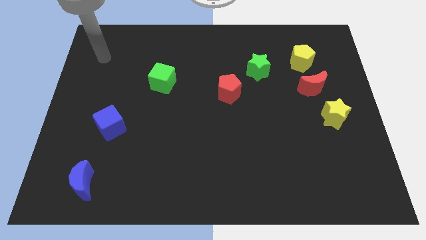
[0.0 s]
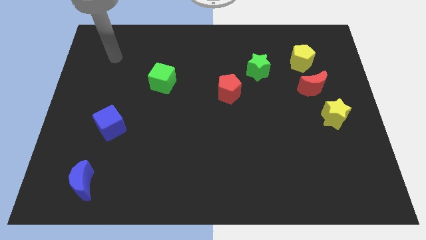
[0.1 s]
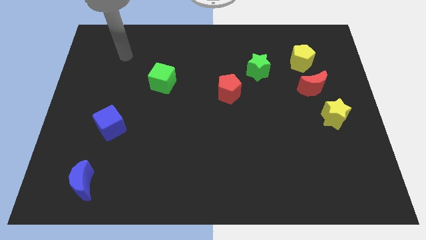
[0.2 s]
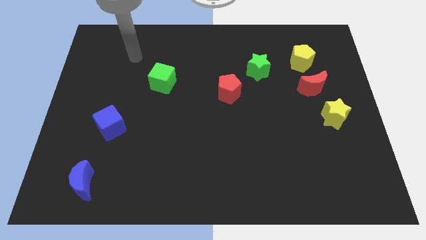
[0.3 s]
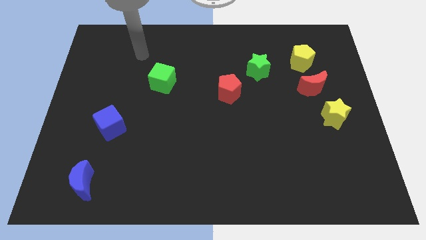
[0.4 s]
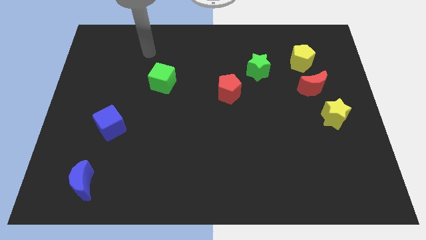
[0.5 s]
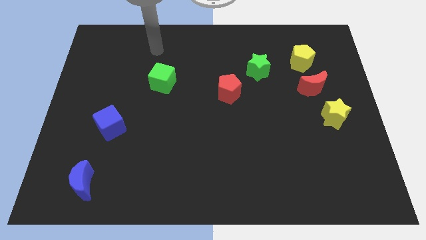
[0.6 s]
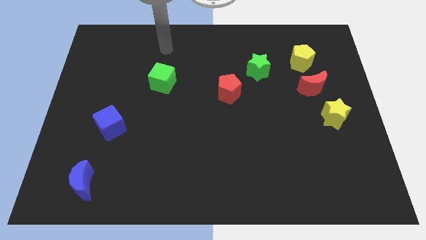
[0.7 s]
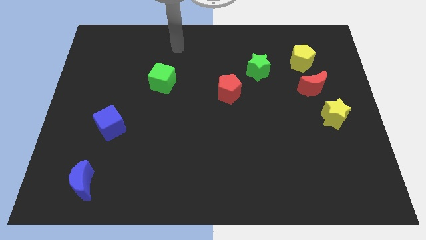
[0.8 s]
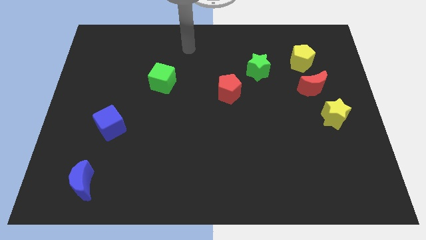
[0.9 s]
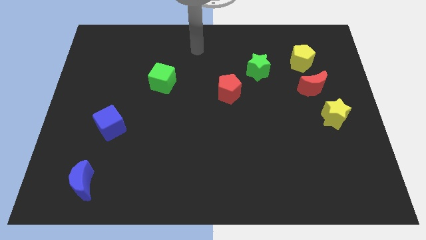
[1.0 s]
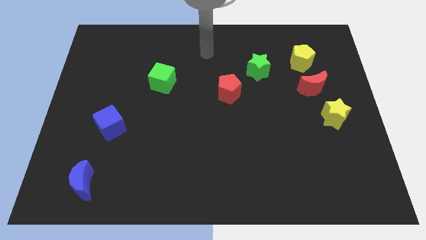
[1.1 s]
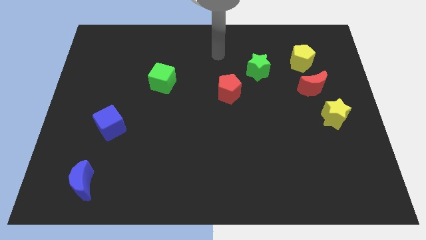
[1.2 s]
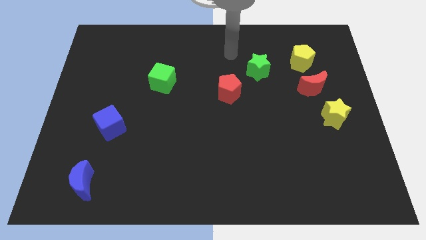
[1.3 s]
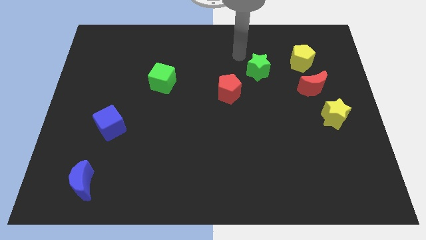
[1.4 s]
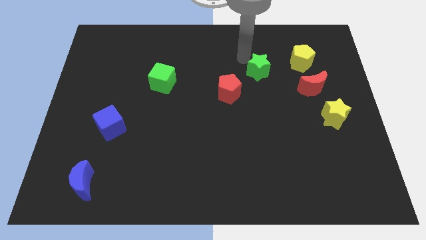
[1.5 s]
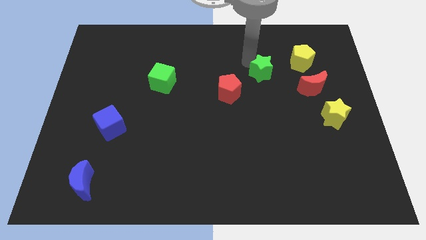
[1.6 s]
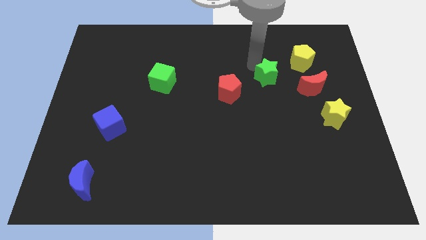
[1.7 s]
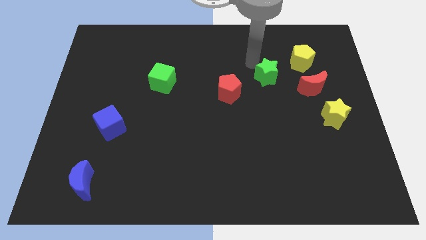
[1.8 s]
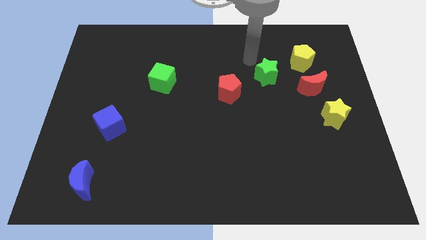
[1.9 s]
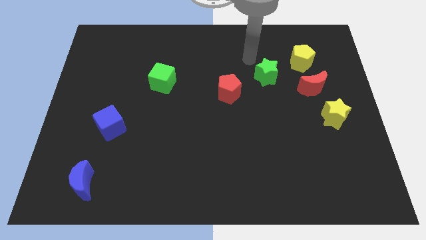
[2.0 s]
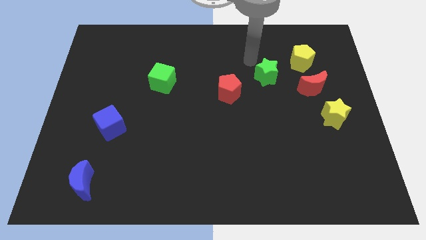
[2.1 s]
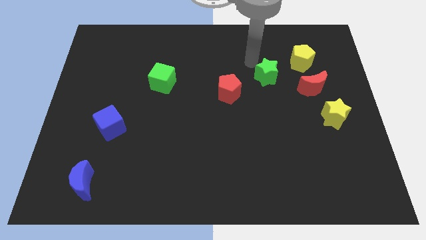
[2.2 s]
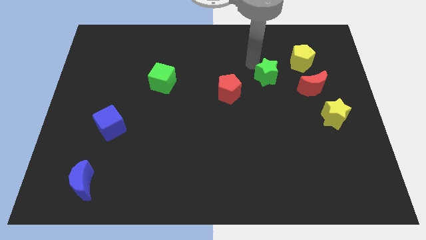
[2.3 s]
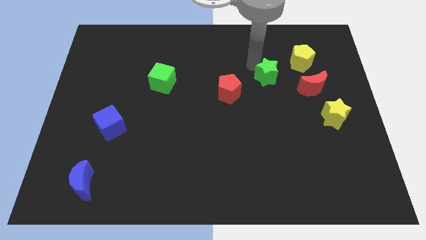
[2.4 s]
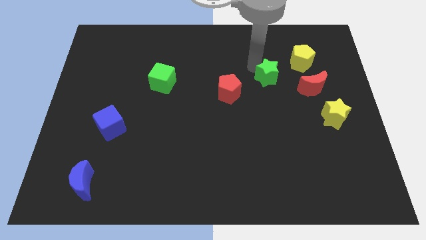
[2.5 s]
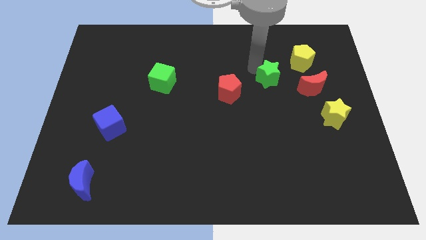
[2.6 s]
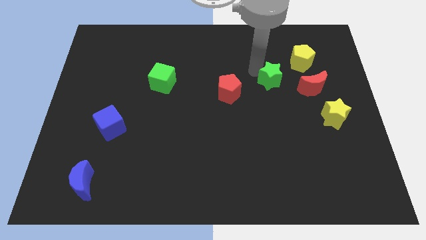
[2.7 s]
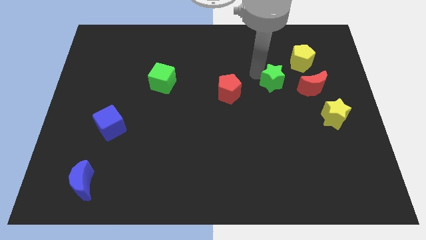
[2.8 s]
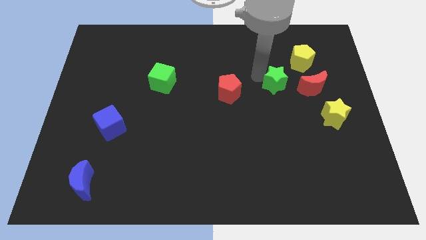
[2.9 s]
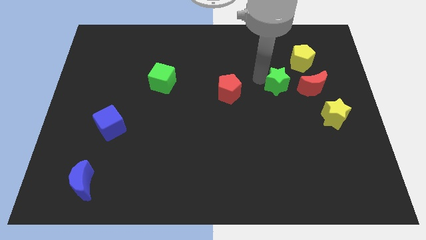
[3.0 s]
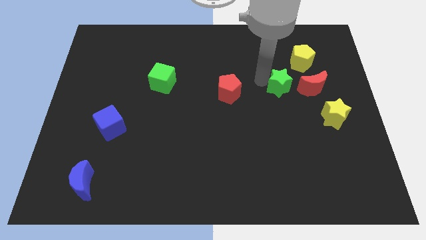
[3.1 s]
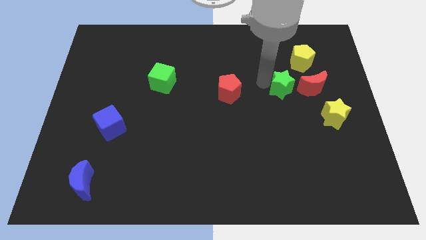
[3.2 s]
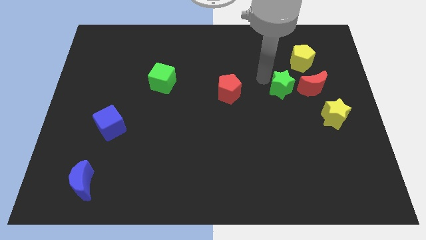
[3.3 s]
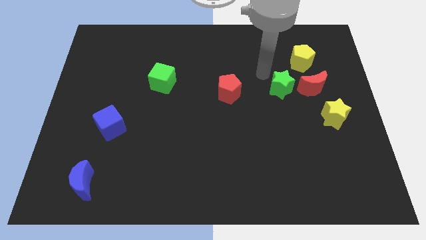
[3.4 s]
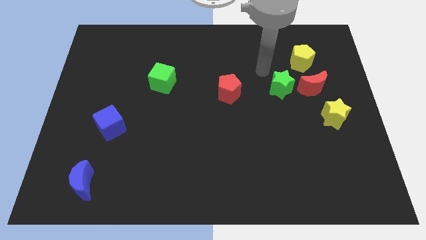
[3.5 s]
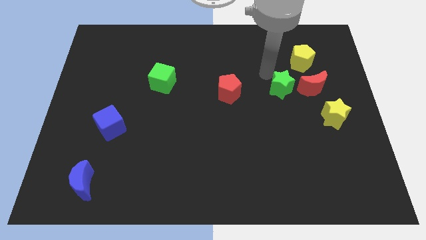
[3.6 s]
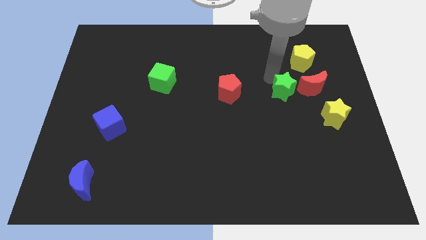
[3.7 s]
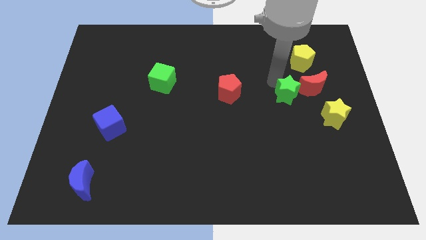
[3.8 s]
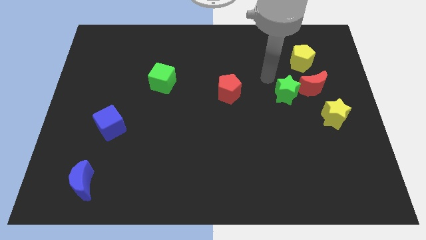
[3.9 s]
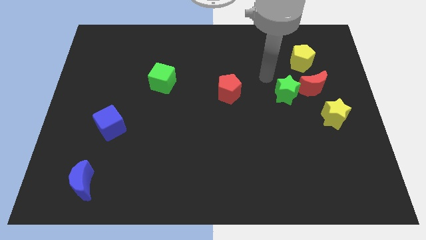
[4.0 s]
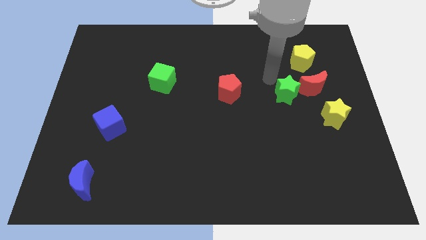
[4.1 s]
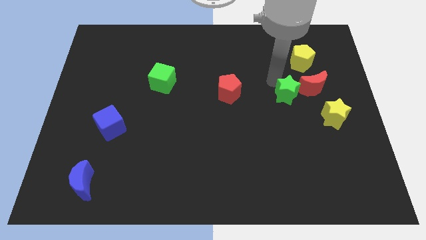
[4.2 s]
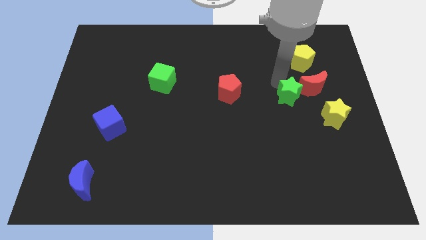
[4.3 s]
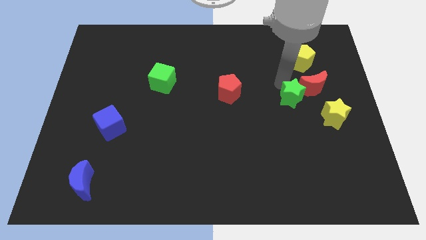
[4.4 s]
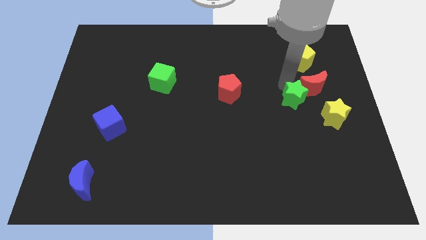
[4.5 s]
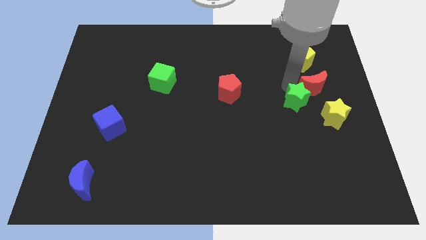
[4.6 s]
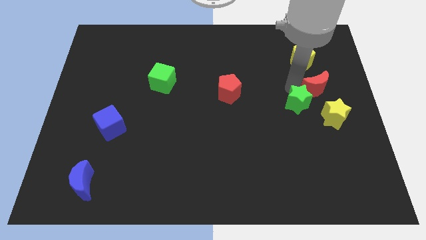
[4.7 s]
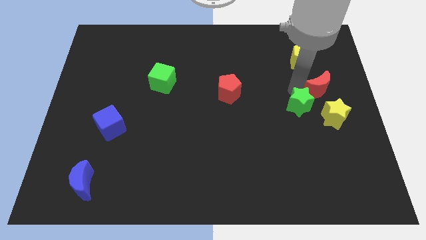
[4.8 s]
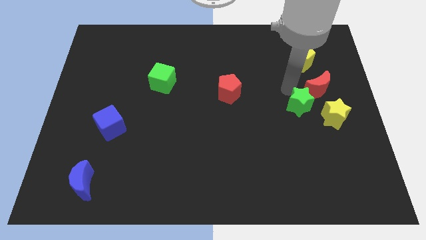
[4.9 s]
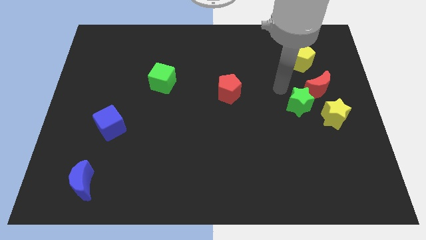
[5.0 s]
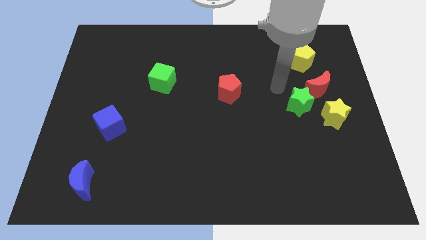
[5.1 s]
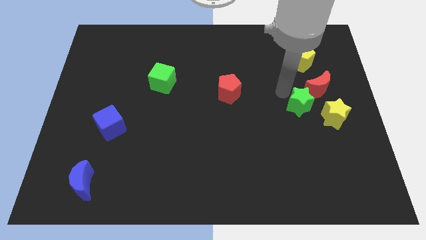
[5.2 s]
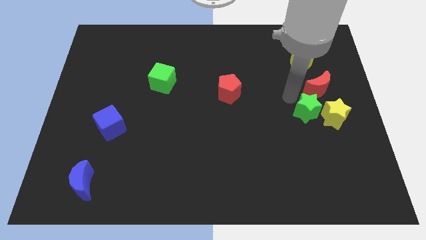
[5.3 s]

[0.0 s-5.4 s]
put the green star to the bottom of the red moon

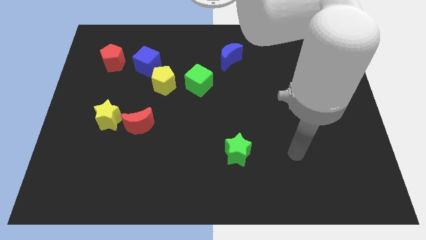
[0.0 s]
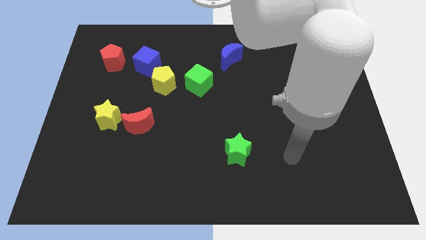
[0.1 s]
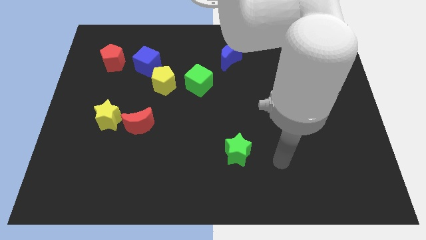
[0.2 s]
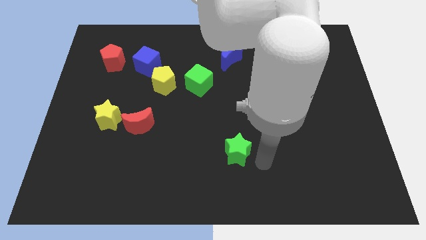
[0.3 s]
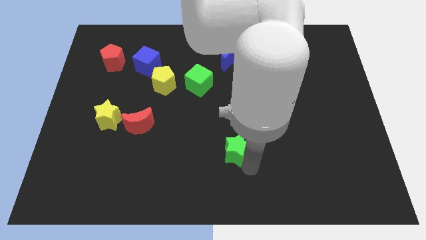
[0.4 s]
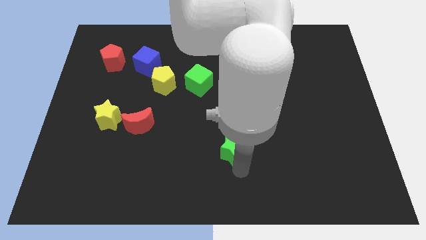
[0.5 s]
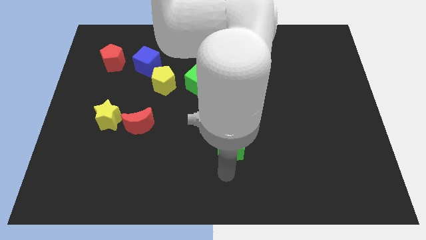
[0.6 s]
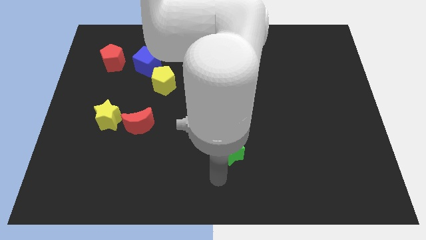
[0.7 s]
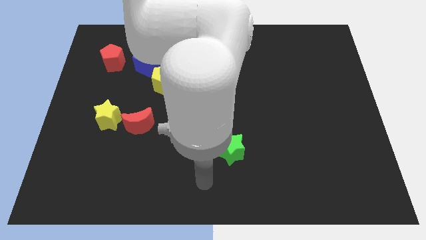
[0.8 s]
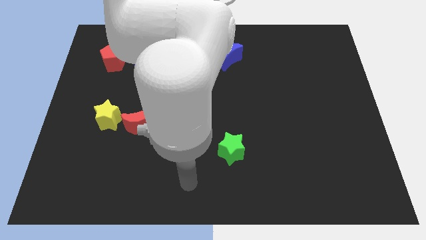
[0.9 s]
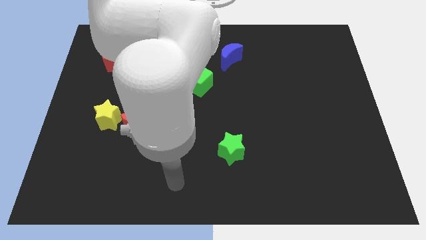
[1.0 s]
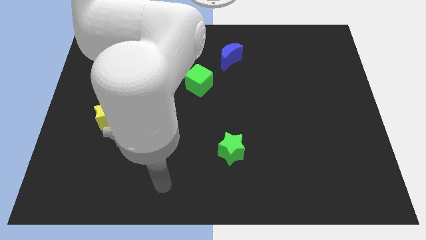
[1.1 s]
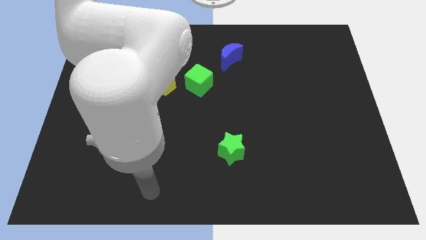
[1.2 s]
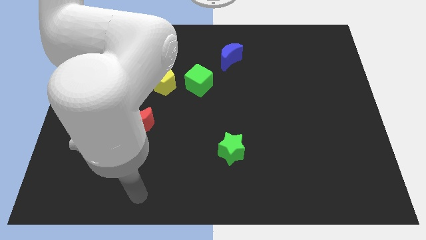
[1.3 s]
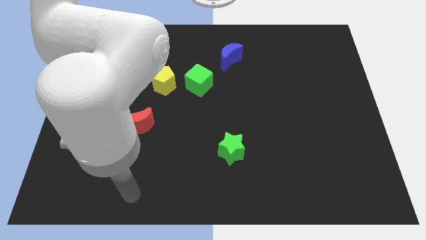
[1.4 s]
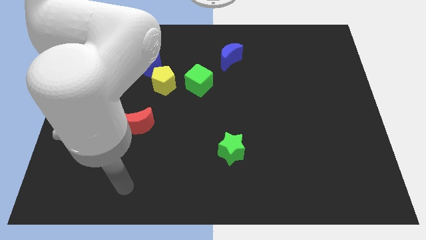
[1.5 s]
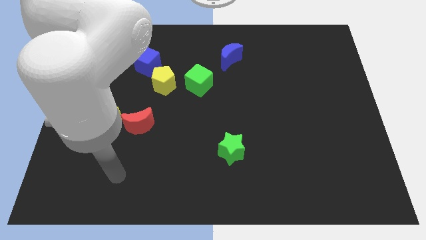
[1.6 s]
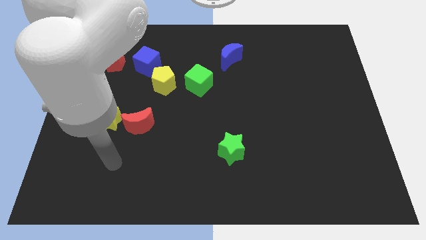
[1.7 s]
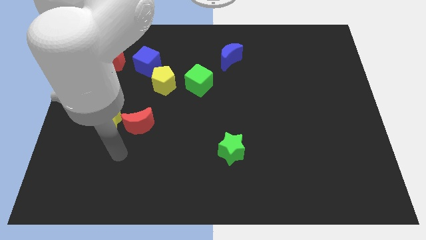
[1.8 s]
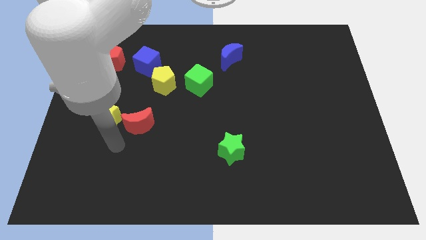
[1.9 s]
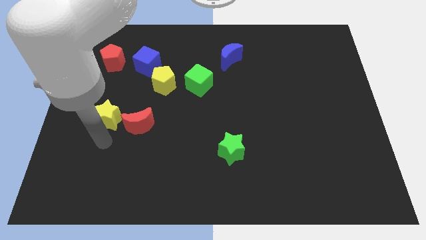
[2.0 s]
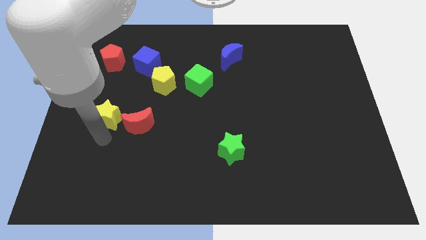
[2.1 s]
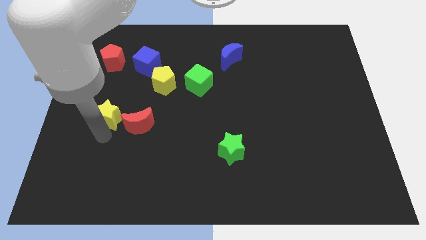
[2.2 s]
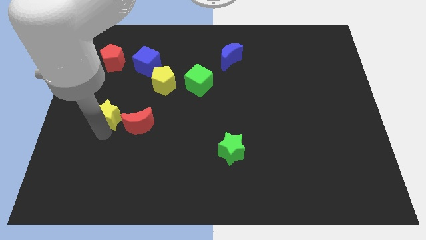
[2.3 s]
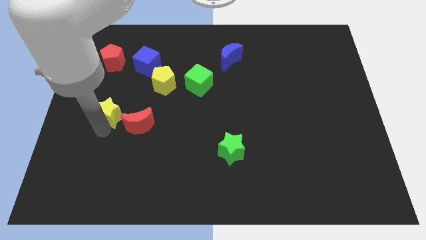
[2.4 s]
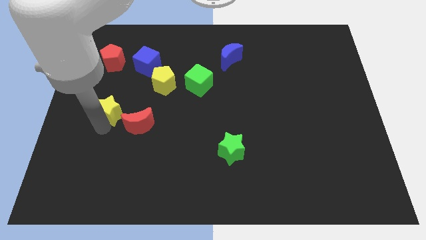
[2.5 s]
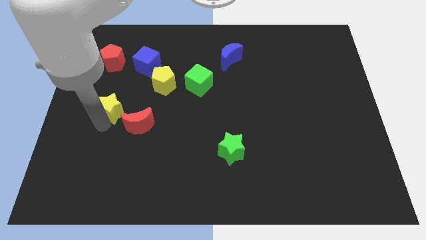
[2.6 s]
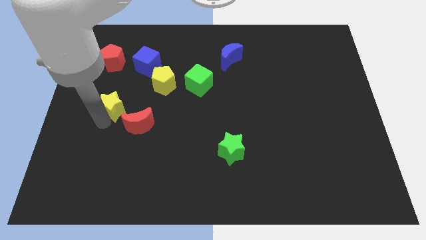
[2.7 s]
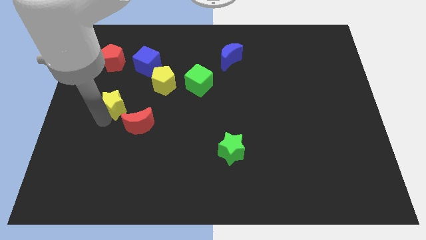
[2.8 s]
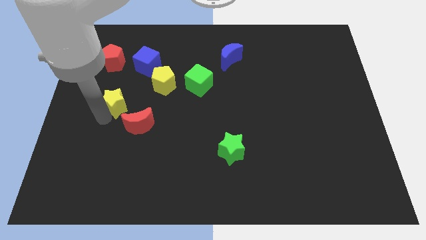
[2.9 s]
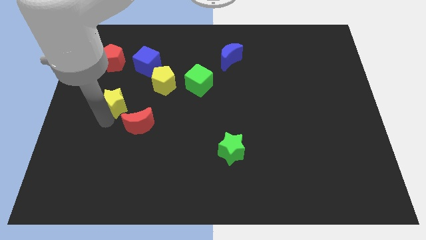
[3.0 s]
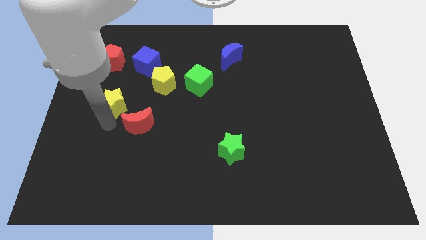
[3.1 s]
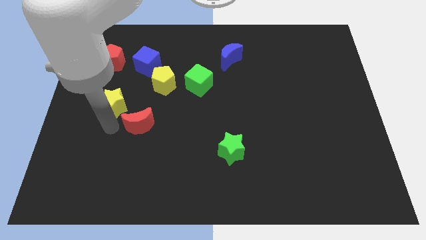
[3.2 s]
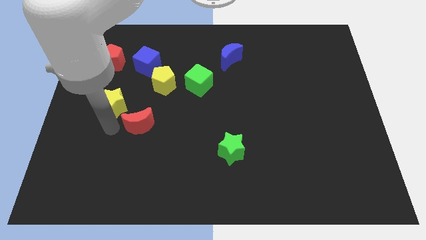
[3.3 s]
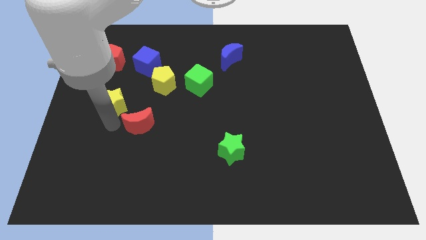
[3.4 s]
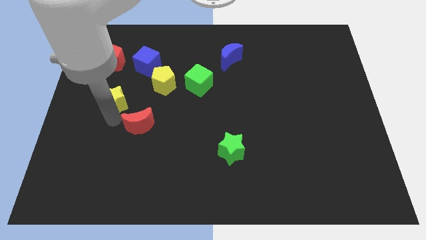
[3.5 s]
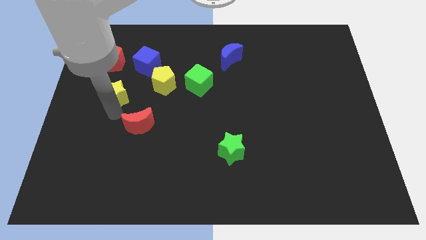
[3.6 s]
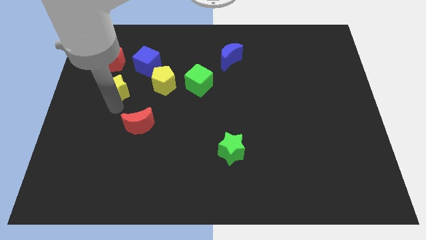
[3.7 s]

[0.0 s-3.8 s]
put the yellow star diagonally down and to the left of the blue cube
